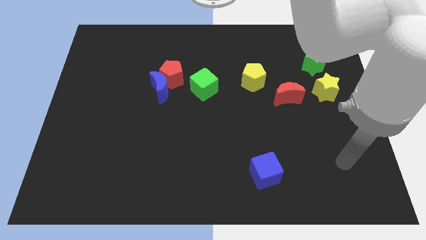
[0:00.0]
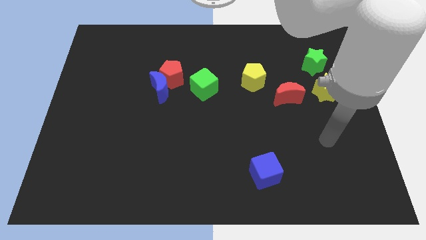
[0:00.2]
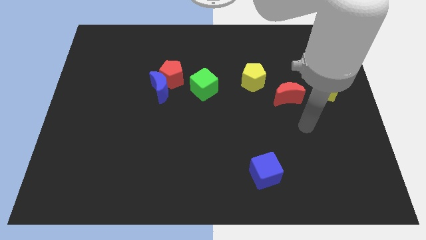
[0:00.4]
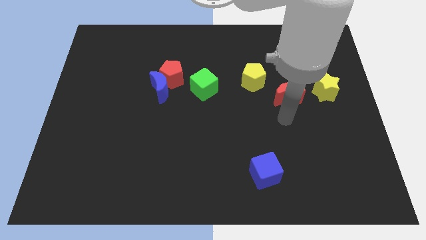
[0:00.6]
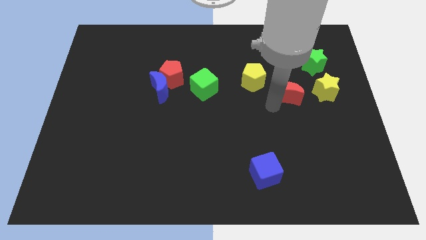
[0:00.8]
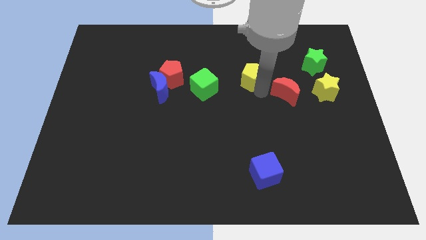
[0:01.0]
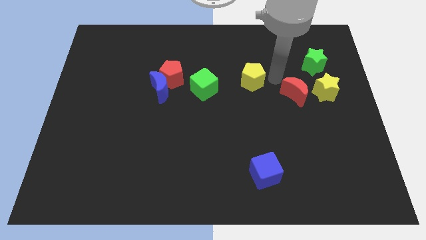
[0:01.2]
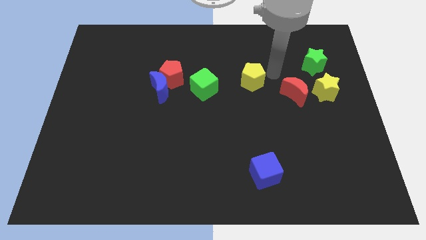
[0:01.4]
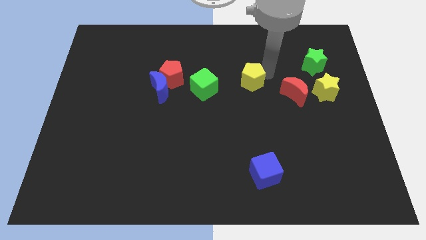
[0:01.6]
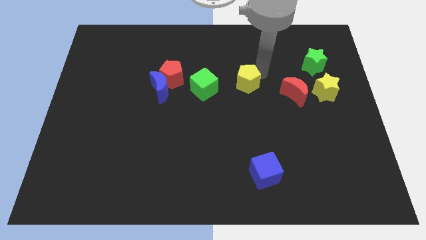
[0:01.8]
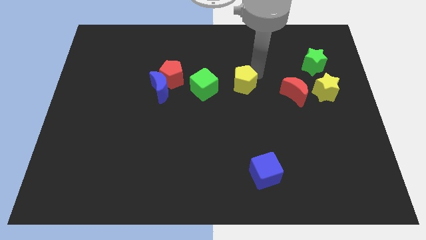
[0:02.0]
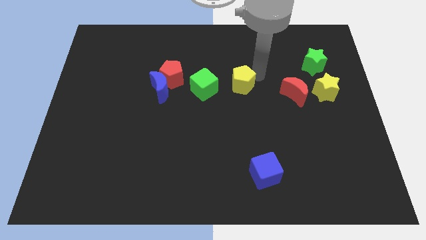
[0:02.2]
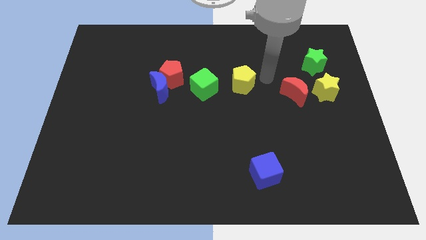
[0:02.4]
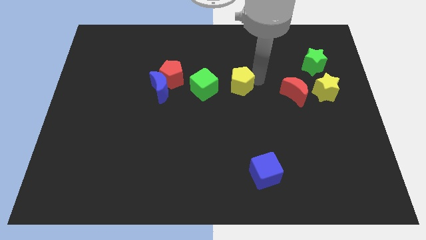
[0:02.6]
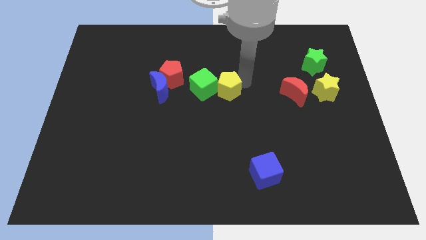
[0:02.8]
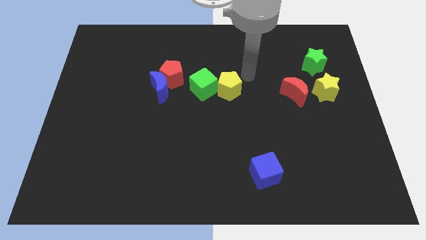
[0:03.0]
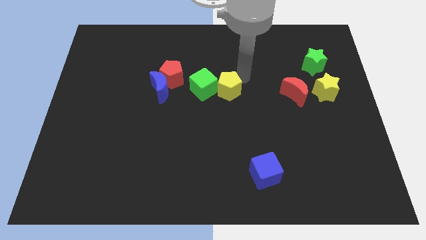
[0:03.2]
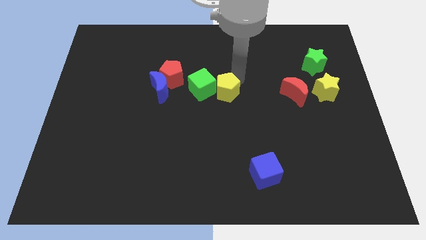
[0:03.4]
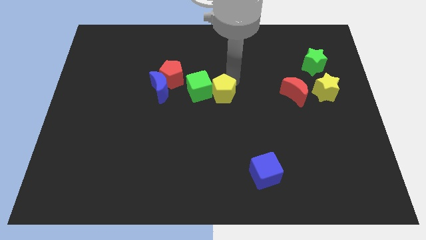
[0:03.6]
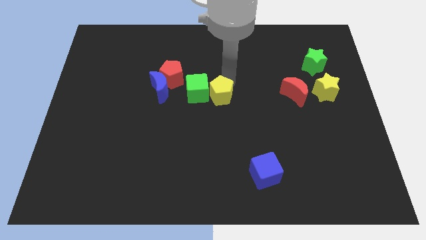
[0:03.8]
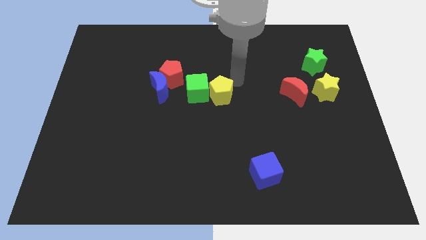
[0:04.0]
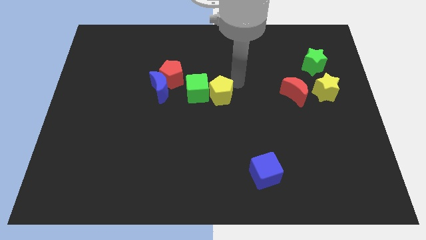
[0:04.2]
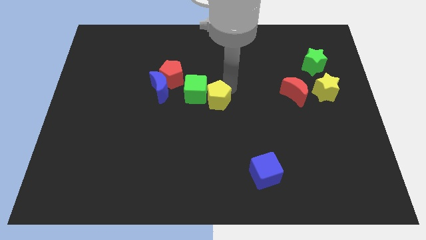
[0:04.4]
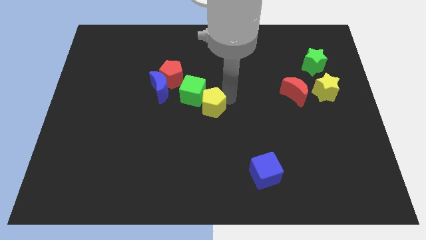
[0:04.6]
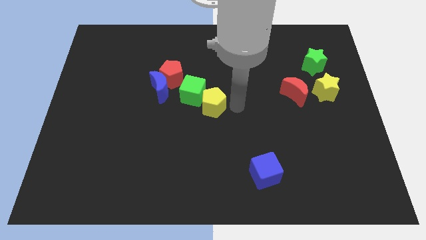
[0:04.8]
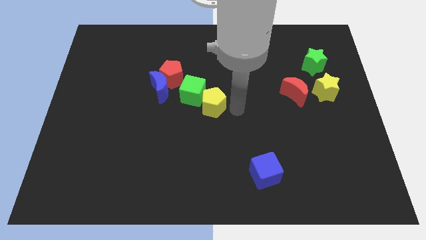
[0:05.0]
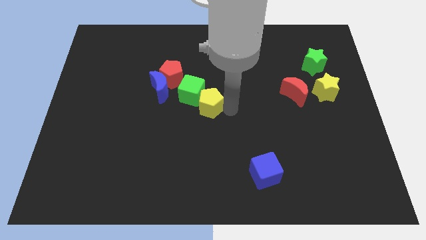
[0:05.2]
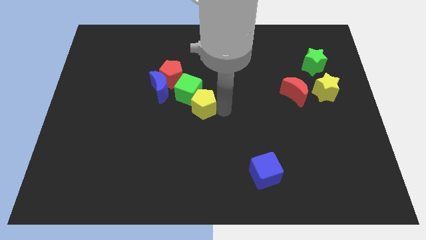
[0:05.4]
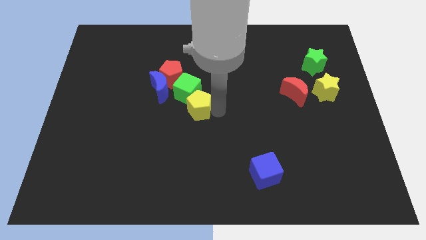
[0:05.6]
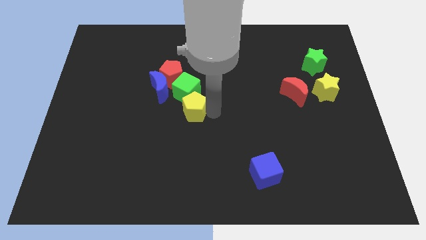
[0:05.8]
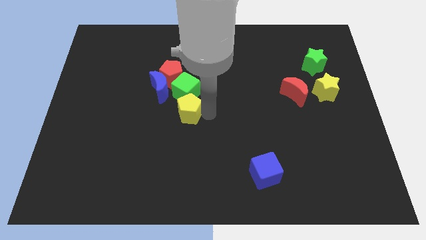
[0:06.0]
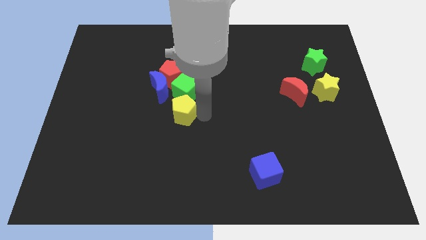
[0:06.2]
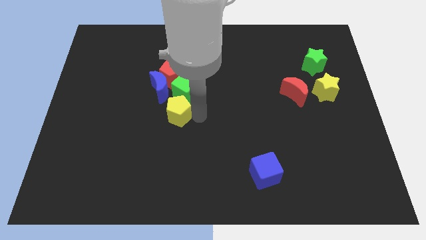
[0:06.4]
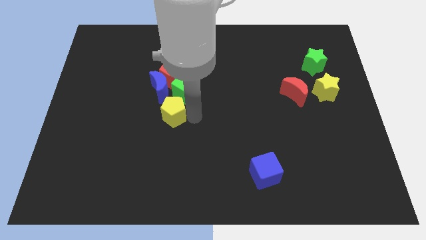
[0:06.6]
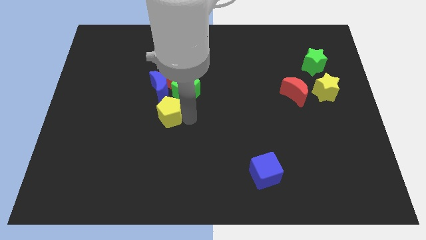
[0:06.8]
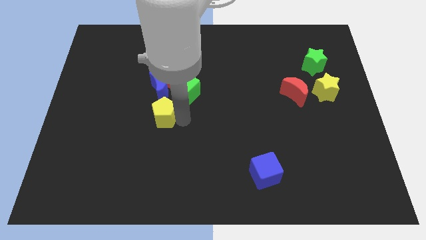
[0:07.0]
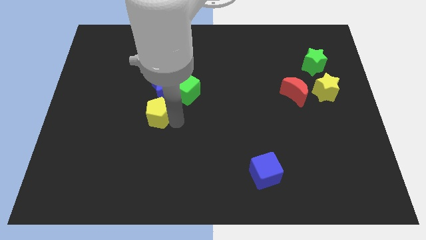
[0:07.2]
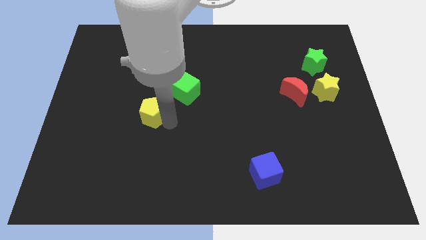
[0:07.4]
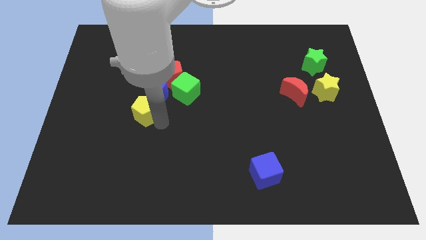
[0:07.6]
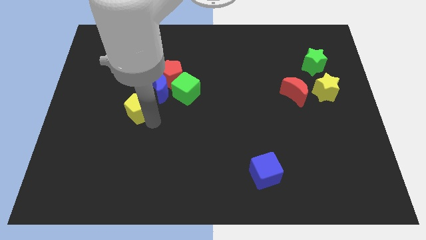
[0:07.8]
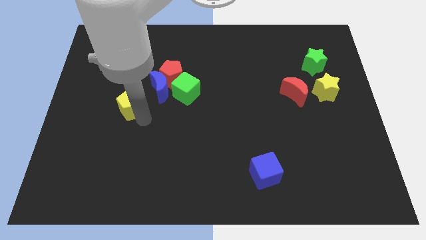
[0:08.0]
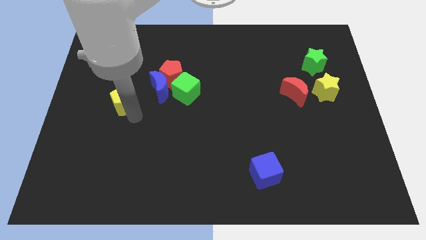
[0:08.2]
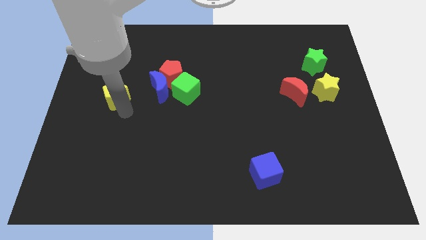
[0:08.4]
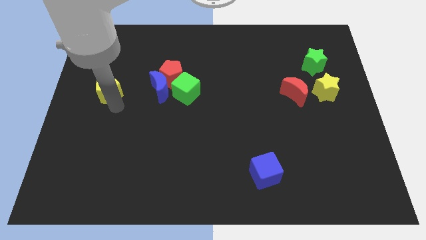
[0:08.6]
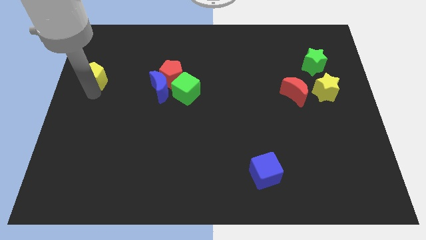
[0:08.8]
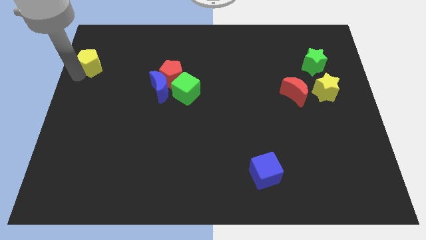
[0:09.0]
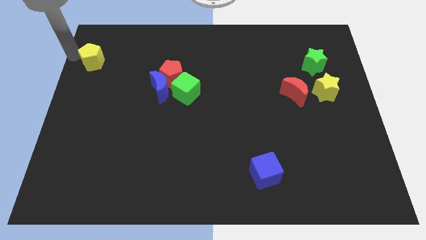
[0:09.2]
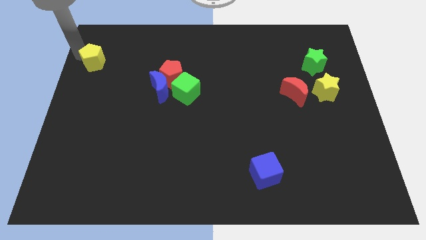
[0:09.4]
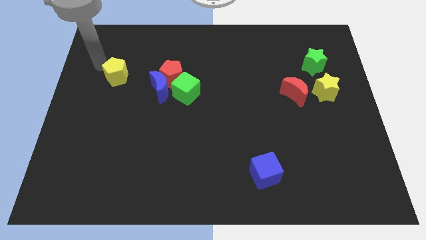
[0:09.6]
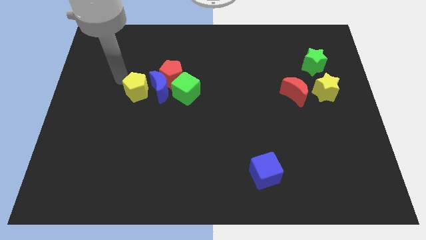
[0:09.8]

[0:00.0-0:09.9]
push the yellow pentagon towards the blue moon

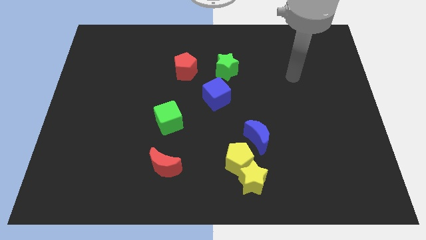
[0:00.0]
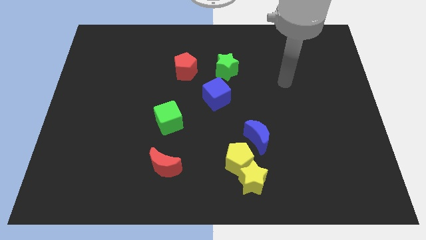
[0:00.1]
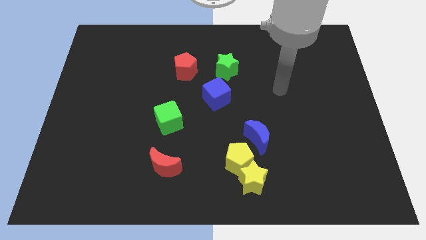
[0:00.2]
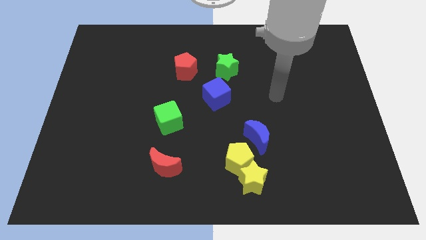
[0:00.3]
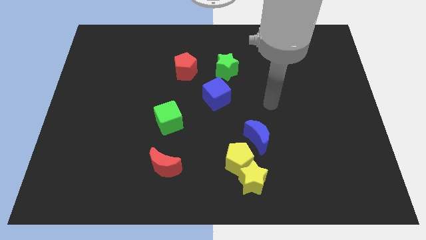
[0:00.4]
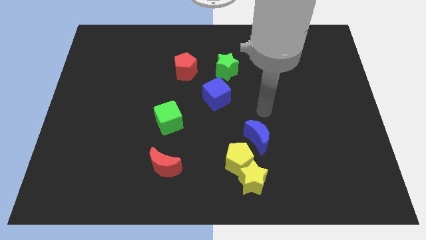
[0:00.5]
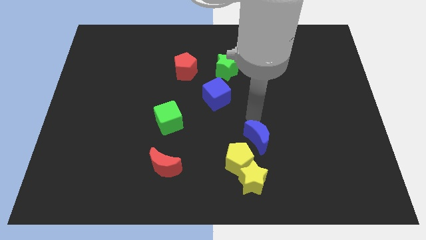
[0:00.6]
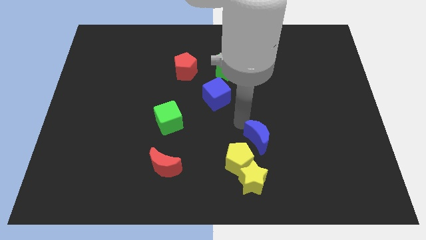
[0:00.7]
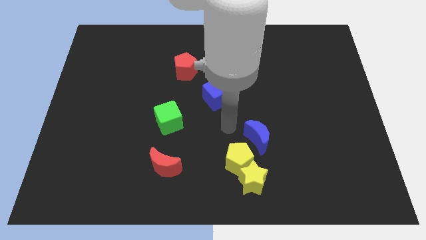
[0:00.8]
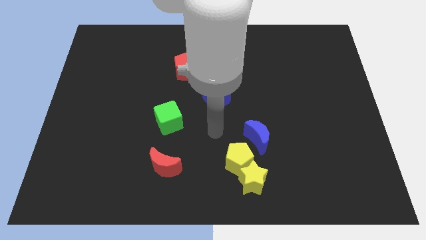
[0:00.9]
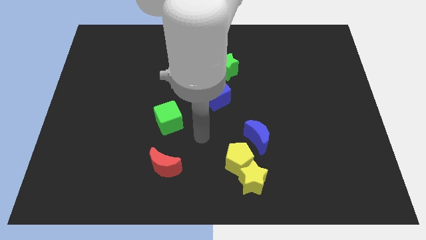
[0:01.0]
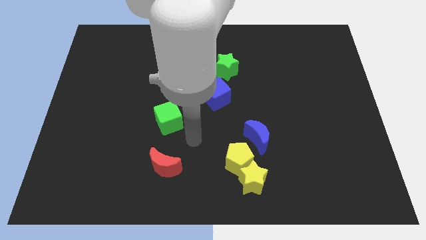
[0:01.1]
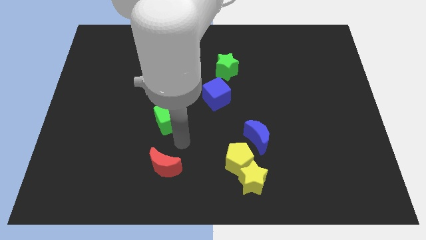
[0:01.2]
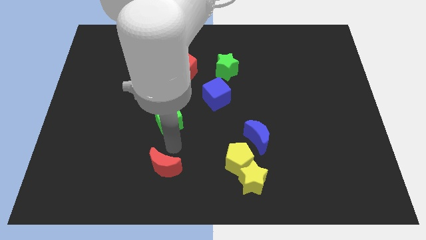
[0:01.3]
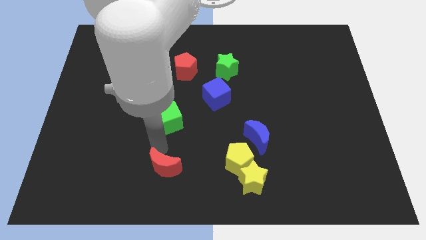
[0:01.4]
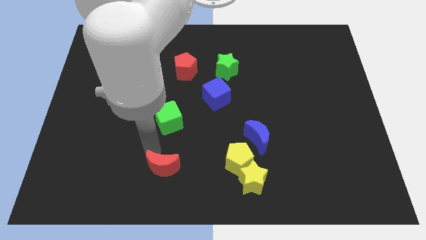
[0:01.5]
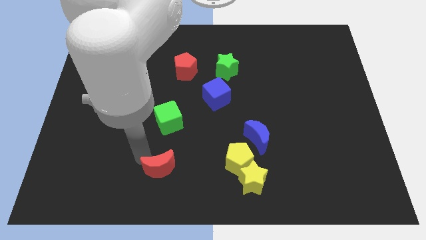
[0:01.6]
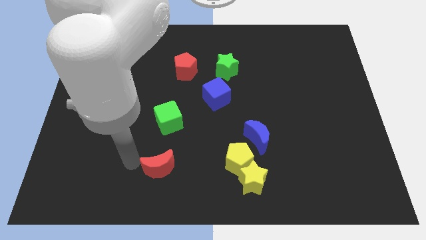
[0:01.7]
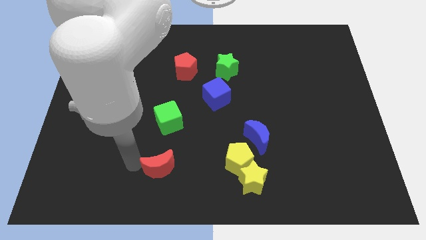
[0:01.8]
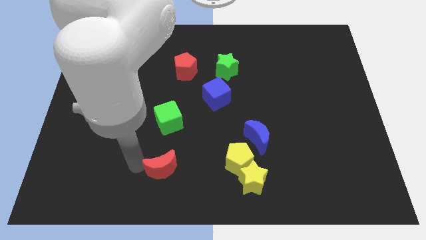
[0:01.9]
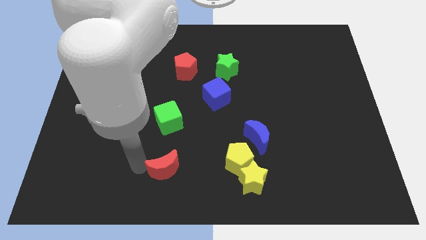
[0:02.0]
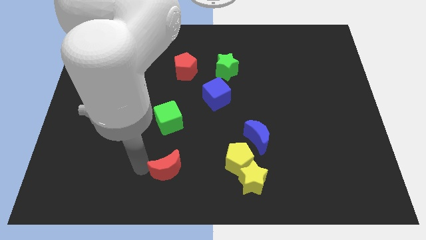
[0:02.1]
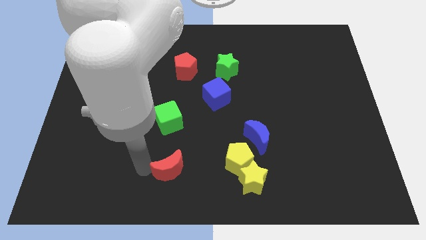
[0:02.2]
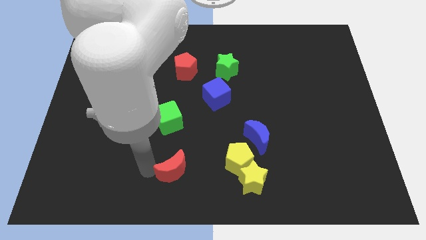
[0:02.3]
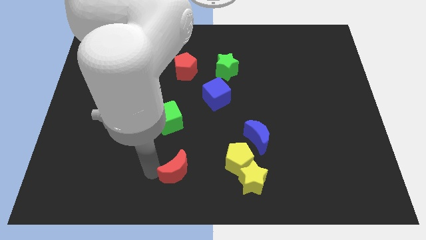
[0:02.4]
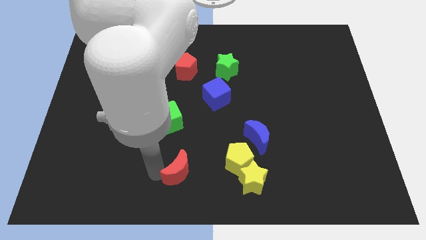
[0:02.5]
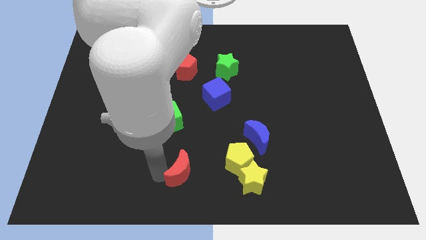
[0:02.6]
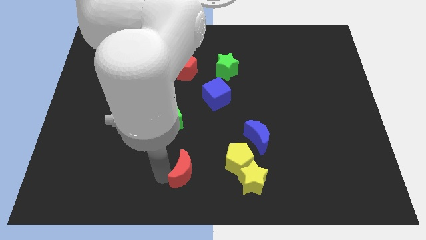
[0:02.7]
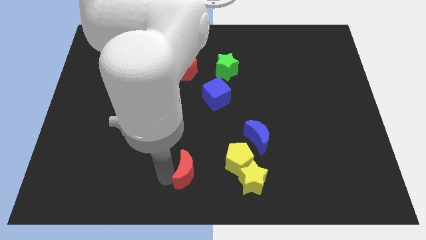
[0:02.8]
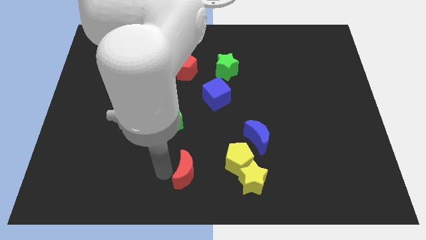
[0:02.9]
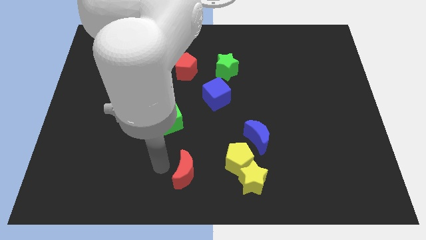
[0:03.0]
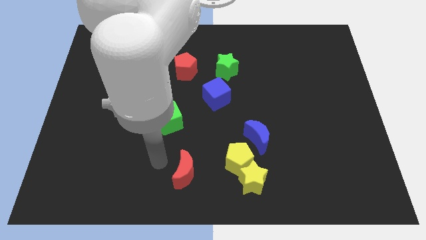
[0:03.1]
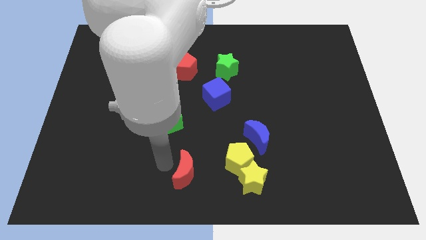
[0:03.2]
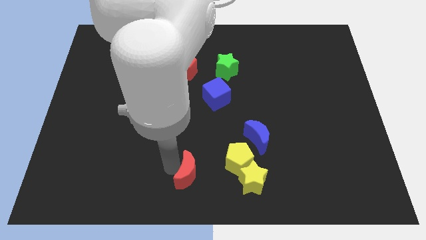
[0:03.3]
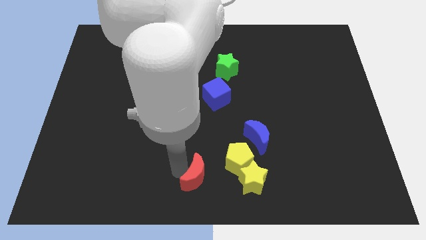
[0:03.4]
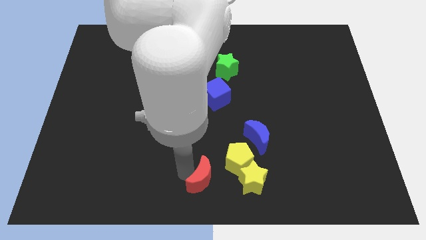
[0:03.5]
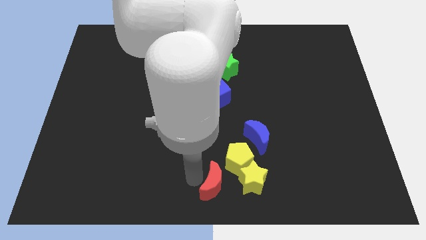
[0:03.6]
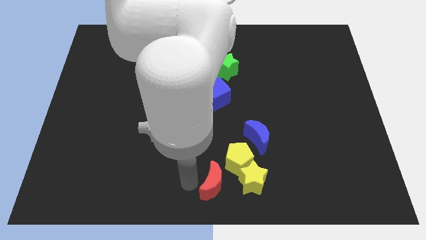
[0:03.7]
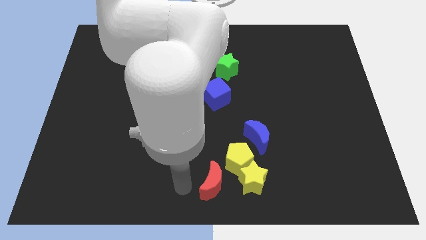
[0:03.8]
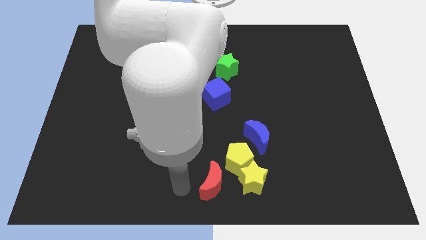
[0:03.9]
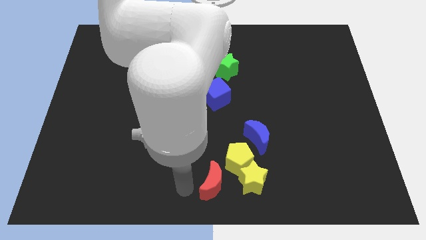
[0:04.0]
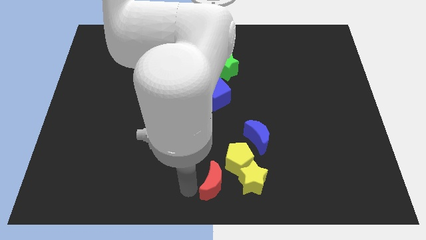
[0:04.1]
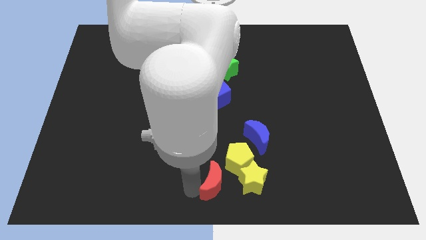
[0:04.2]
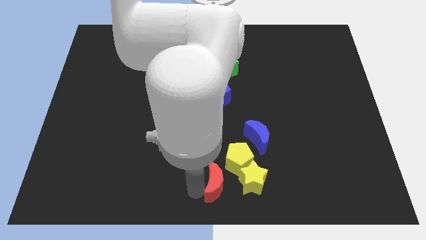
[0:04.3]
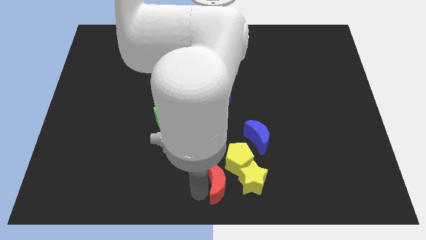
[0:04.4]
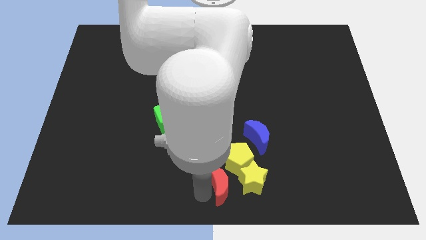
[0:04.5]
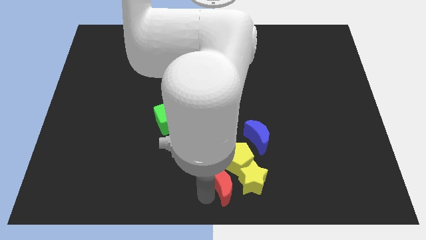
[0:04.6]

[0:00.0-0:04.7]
put the red moon next to the yellow star
